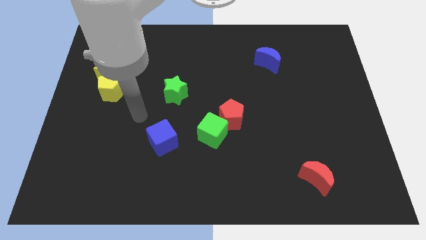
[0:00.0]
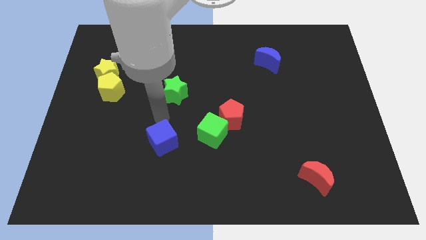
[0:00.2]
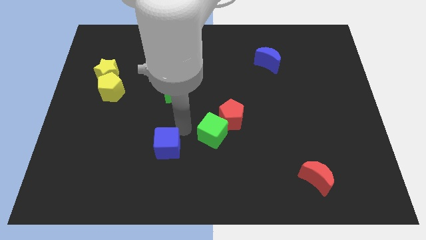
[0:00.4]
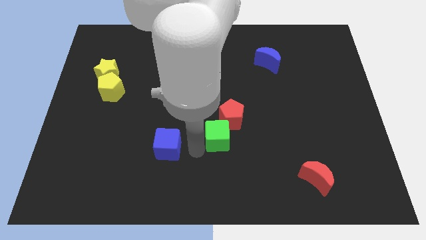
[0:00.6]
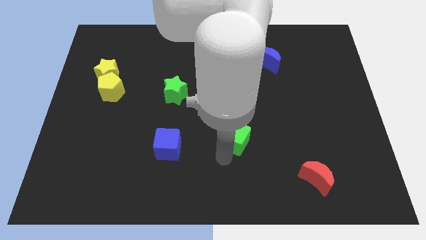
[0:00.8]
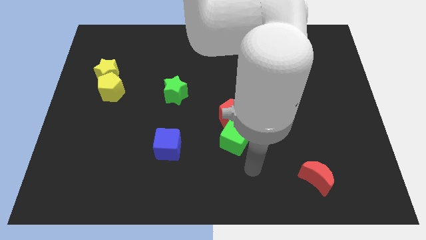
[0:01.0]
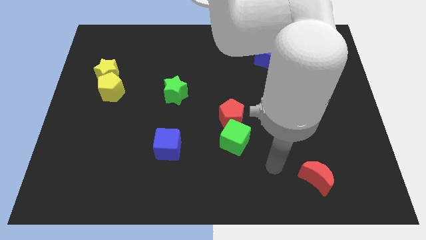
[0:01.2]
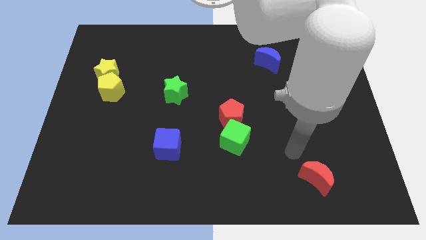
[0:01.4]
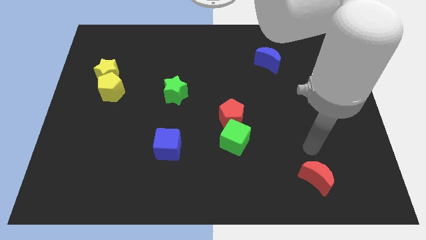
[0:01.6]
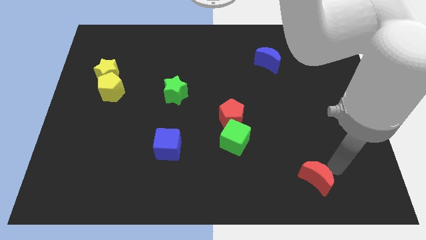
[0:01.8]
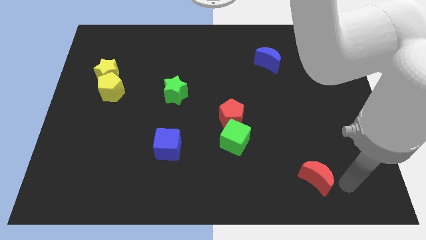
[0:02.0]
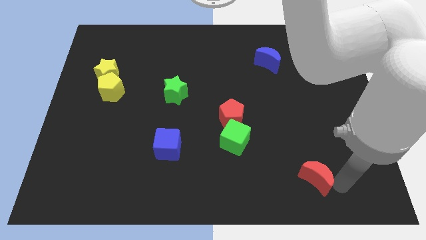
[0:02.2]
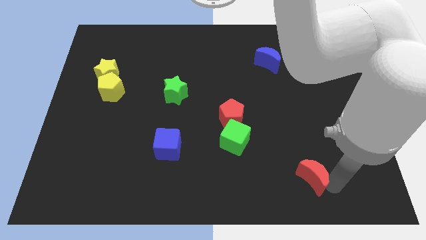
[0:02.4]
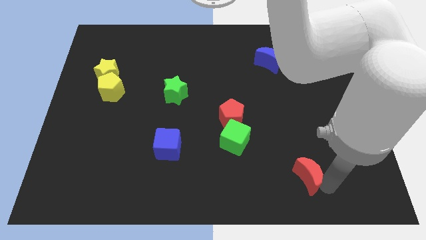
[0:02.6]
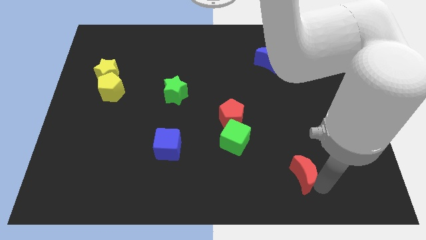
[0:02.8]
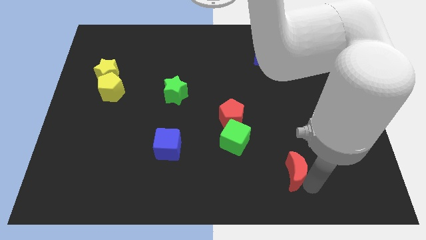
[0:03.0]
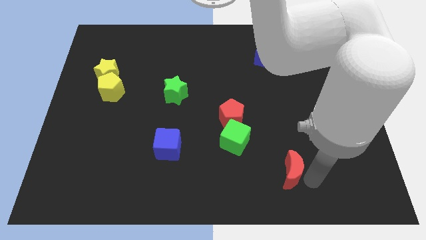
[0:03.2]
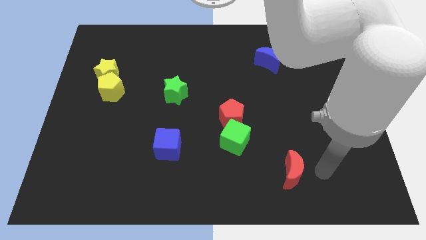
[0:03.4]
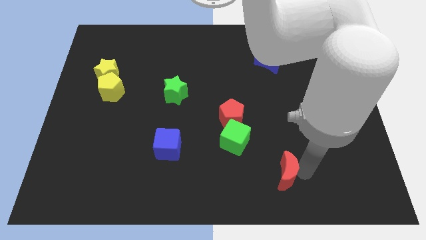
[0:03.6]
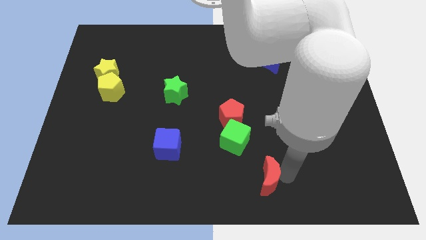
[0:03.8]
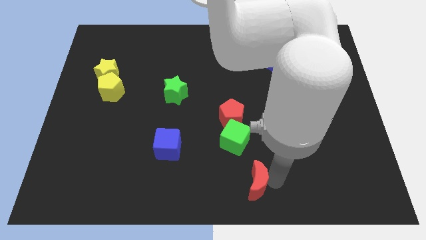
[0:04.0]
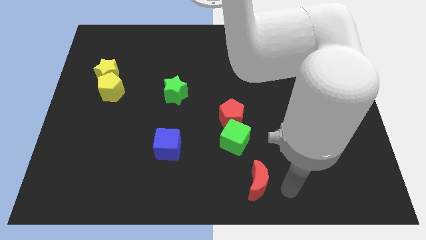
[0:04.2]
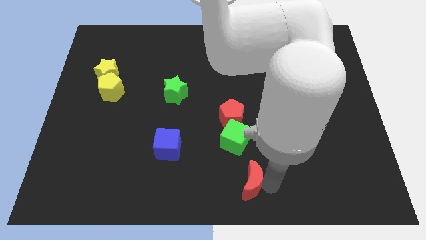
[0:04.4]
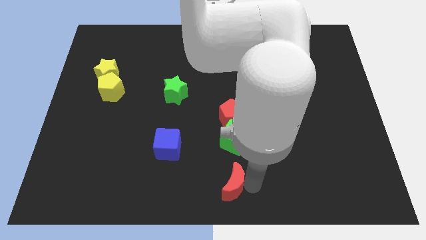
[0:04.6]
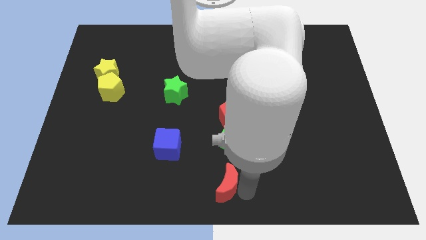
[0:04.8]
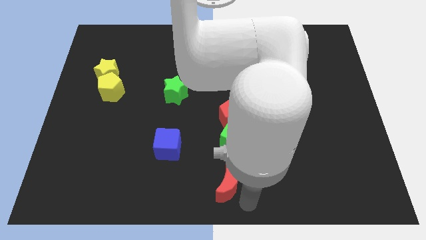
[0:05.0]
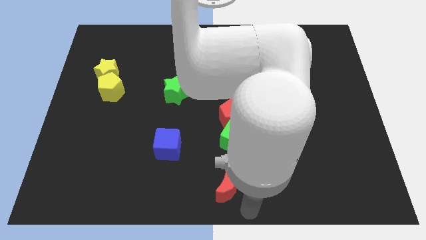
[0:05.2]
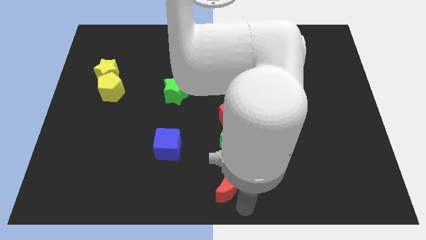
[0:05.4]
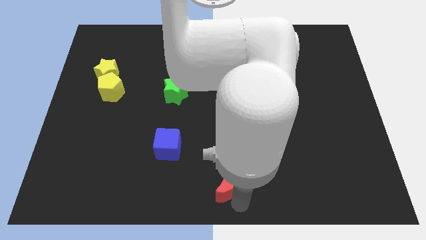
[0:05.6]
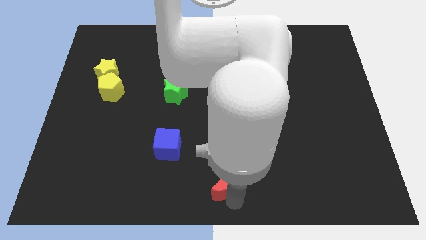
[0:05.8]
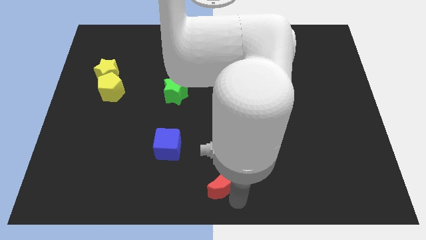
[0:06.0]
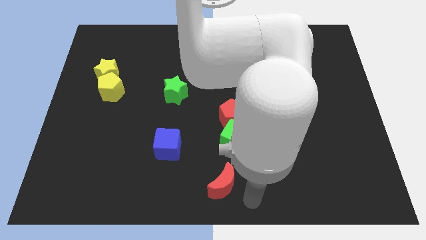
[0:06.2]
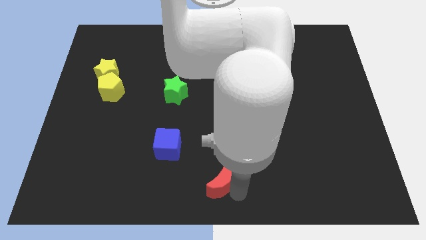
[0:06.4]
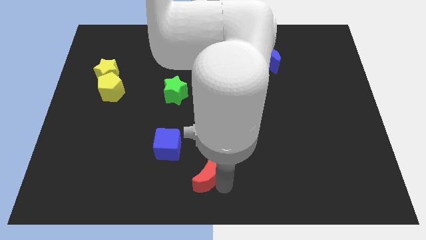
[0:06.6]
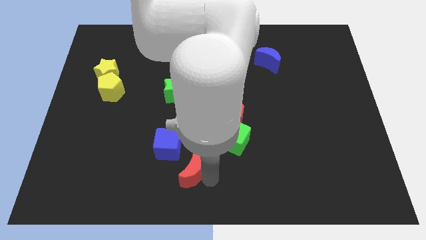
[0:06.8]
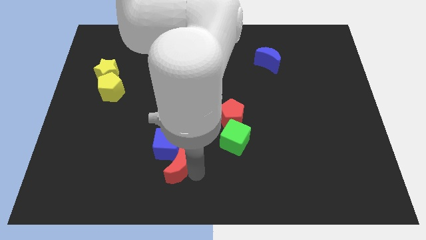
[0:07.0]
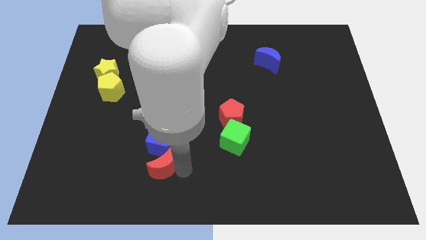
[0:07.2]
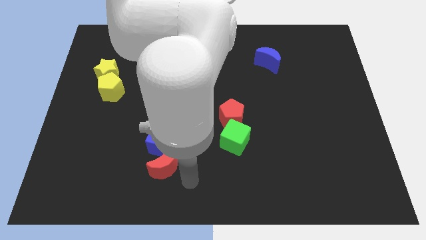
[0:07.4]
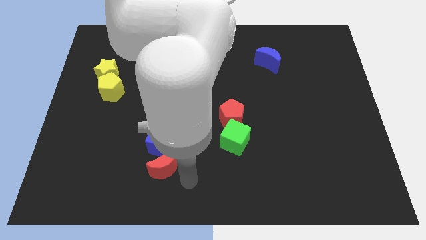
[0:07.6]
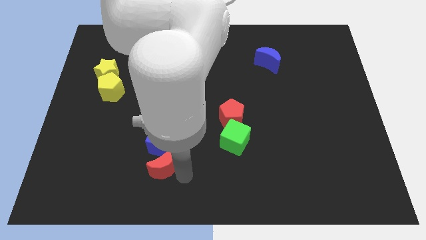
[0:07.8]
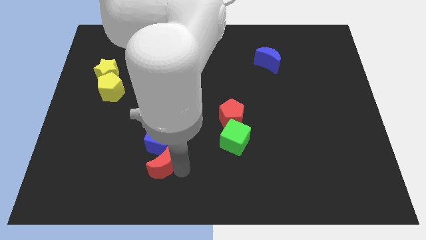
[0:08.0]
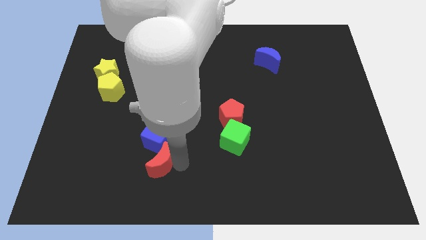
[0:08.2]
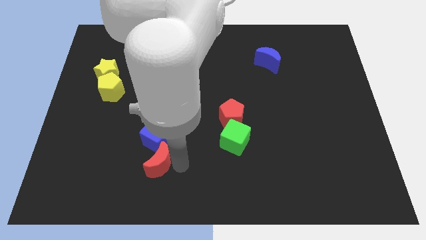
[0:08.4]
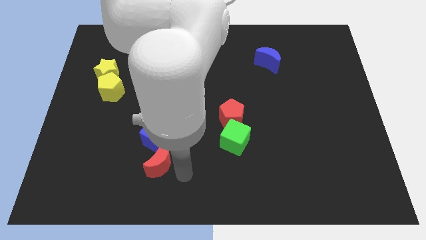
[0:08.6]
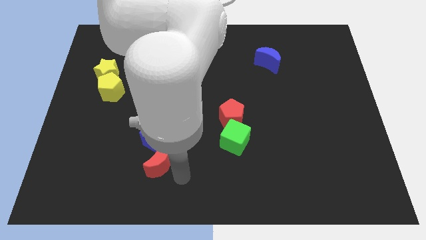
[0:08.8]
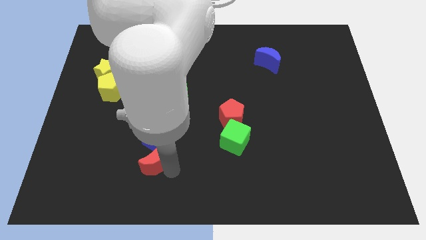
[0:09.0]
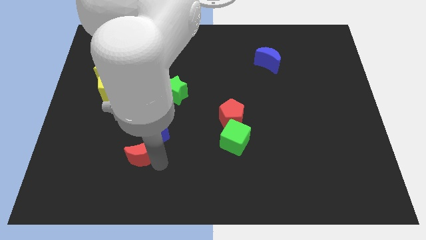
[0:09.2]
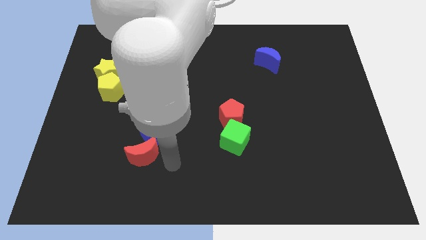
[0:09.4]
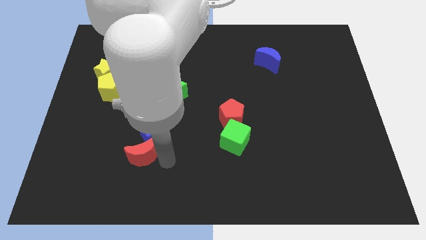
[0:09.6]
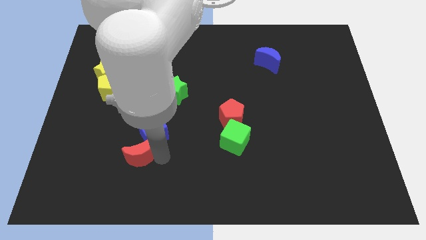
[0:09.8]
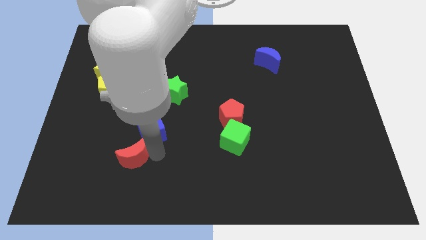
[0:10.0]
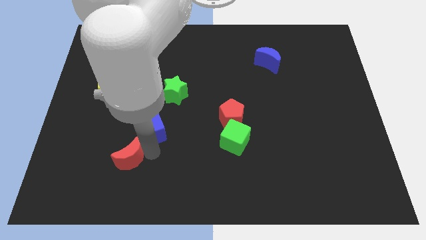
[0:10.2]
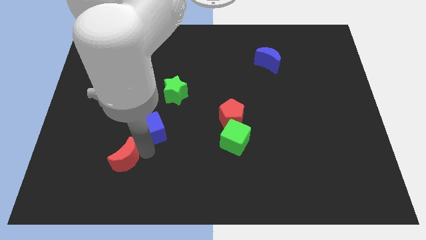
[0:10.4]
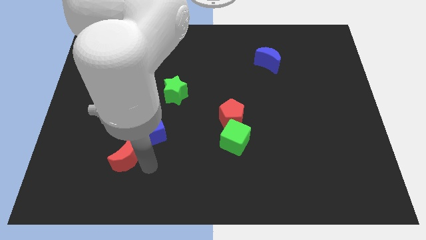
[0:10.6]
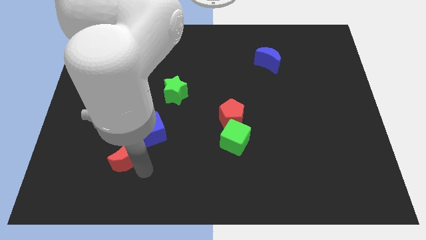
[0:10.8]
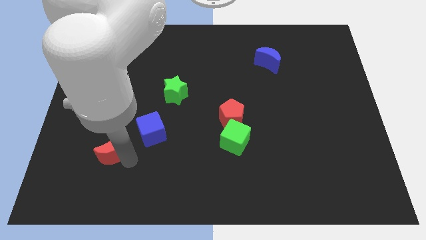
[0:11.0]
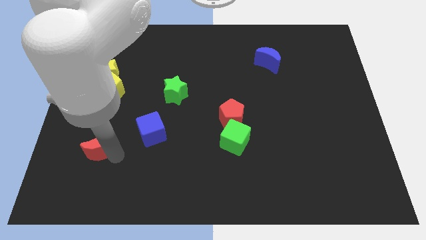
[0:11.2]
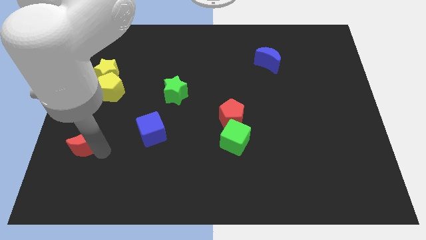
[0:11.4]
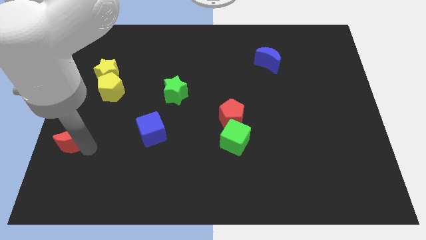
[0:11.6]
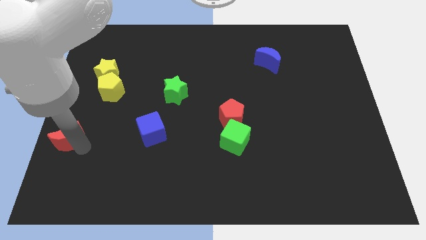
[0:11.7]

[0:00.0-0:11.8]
put the red moon to the left side of the board
